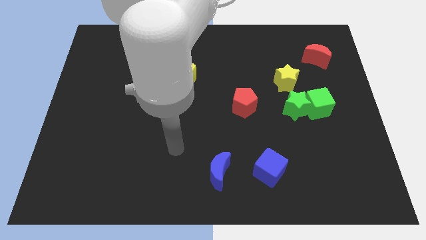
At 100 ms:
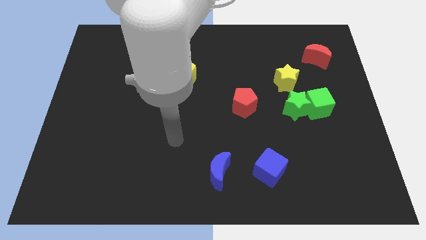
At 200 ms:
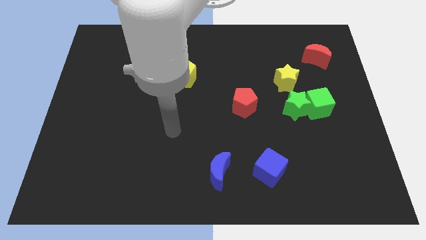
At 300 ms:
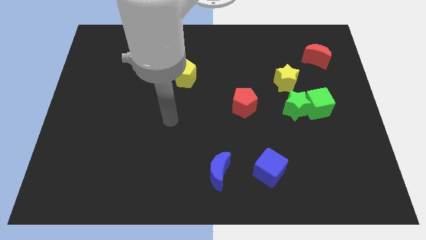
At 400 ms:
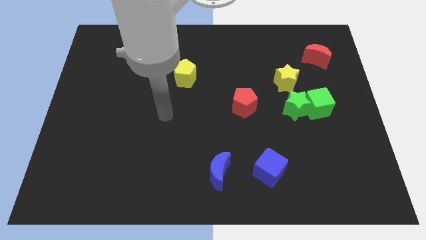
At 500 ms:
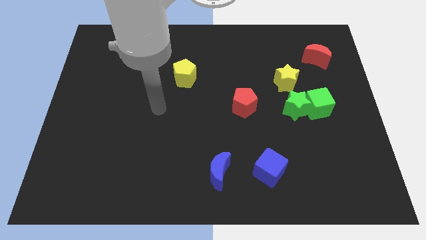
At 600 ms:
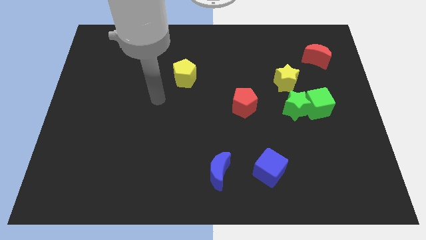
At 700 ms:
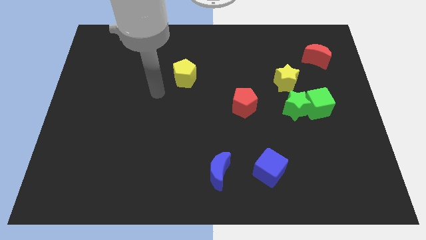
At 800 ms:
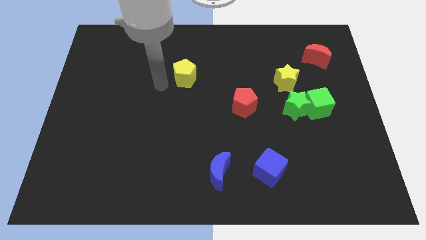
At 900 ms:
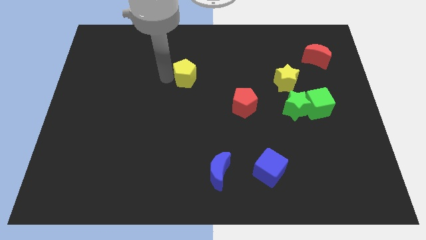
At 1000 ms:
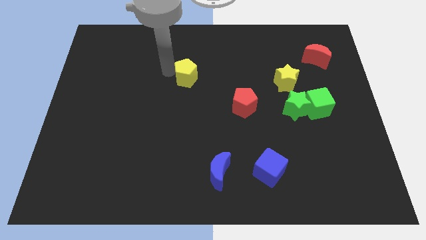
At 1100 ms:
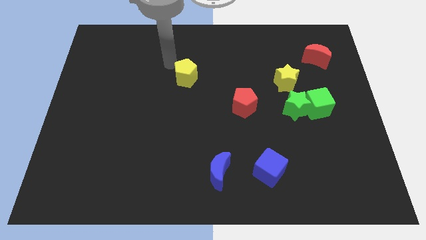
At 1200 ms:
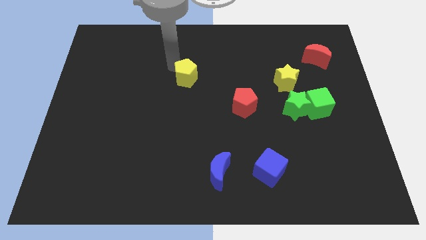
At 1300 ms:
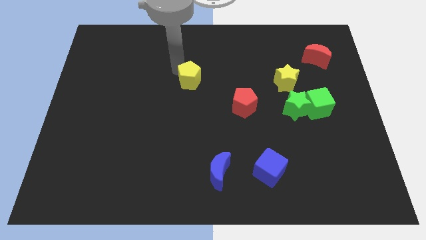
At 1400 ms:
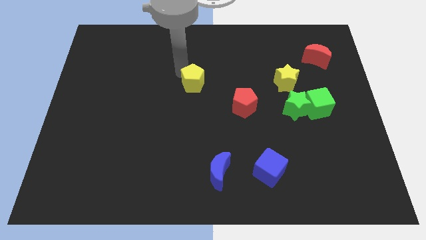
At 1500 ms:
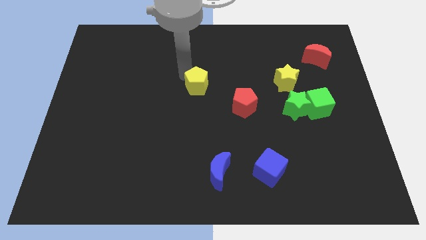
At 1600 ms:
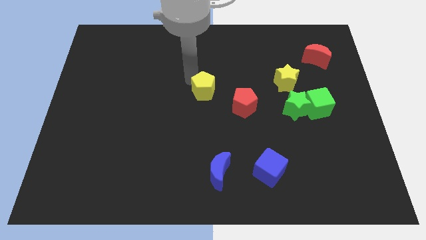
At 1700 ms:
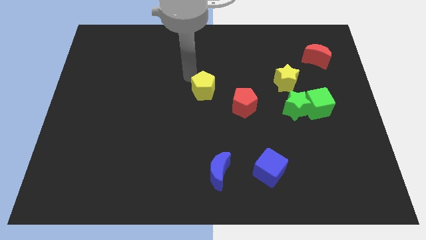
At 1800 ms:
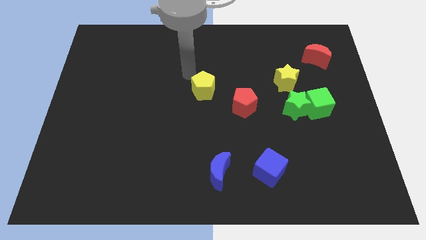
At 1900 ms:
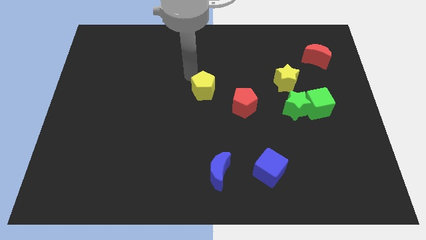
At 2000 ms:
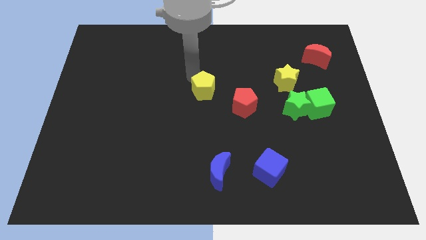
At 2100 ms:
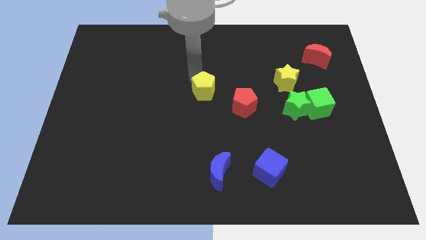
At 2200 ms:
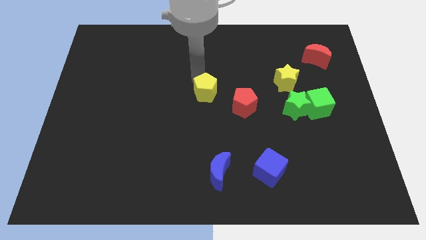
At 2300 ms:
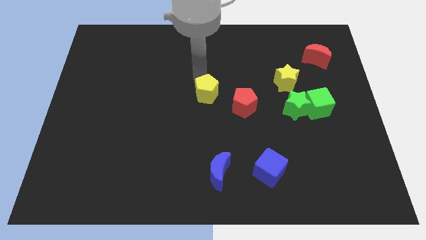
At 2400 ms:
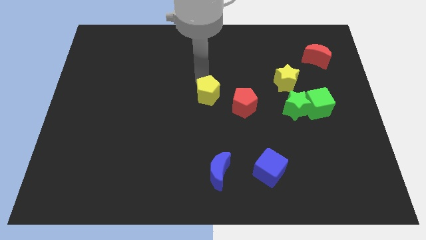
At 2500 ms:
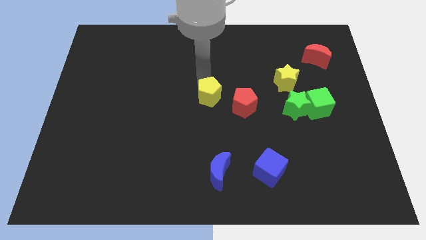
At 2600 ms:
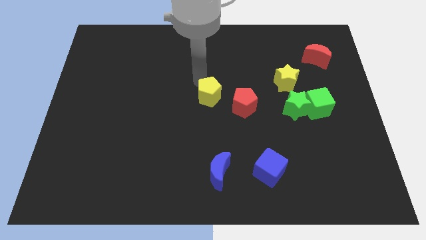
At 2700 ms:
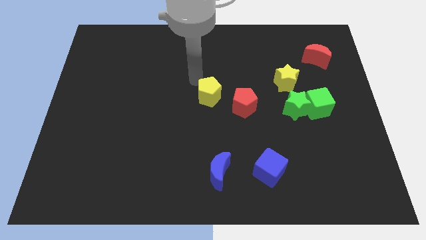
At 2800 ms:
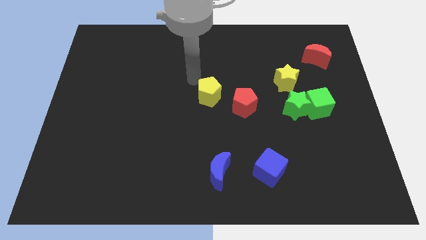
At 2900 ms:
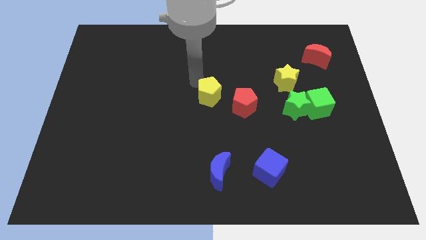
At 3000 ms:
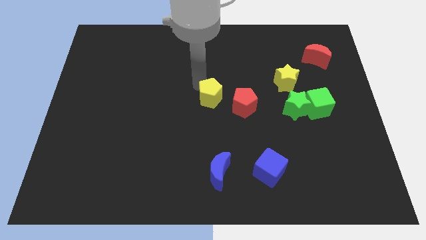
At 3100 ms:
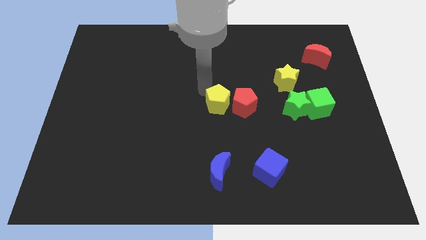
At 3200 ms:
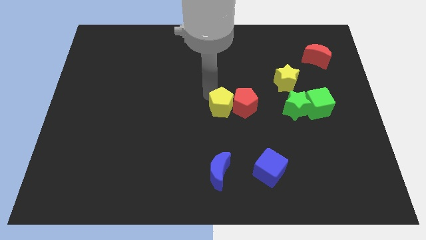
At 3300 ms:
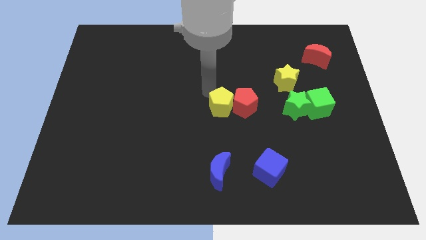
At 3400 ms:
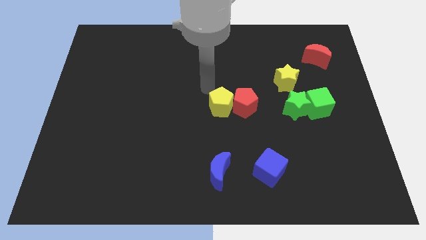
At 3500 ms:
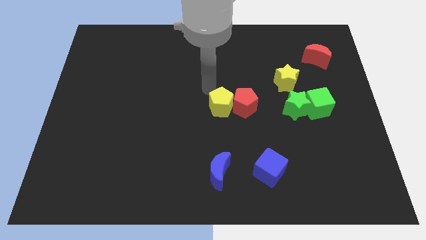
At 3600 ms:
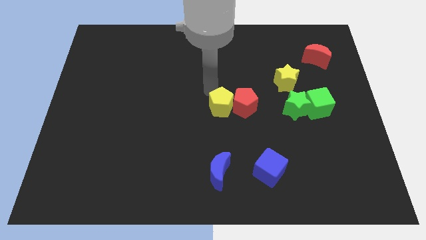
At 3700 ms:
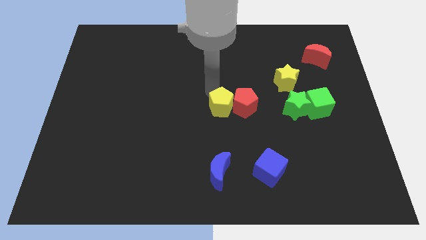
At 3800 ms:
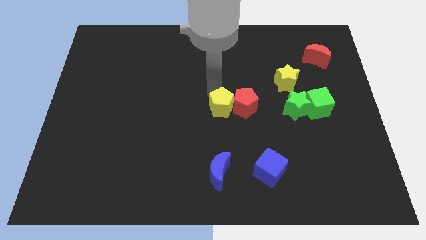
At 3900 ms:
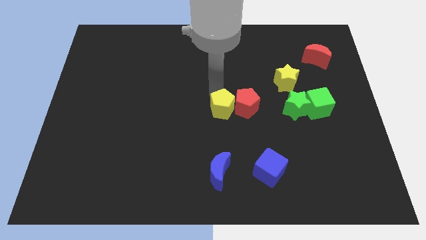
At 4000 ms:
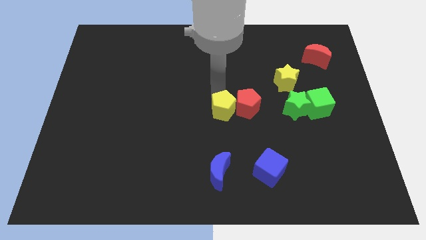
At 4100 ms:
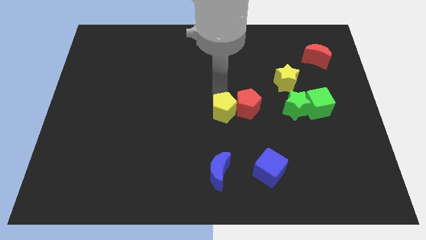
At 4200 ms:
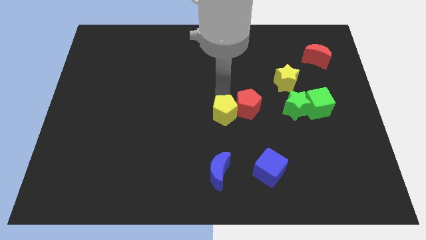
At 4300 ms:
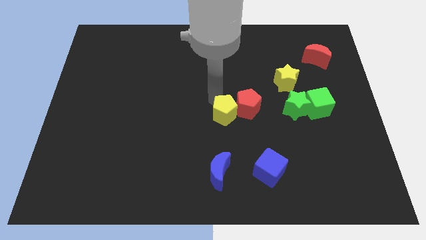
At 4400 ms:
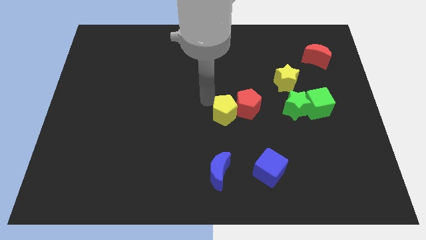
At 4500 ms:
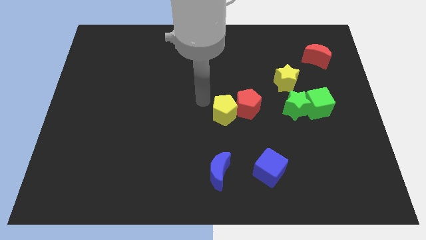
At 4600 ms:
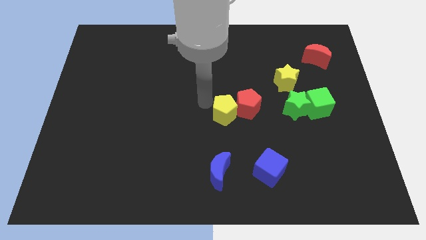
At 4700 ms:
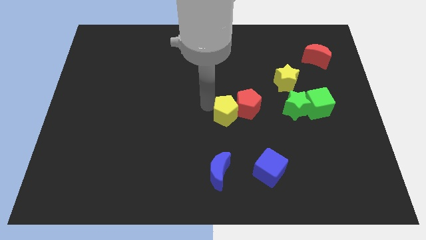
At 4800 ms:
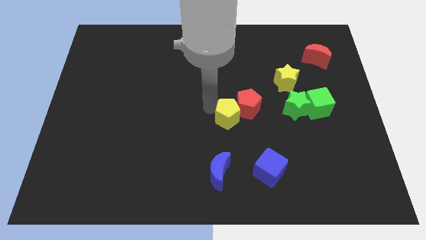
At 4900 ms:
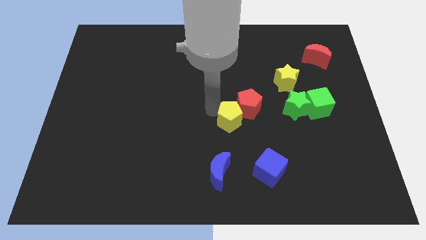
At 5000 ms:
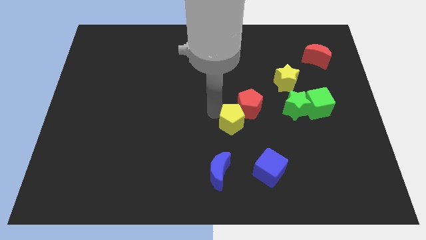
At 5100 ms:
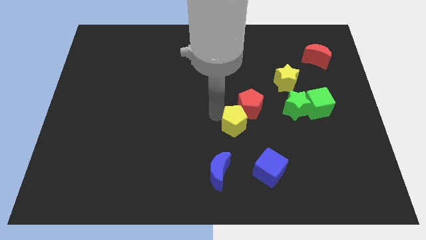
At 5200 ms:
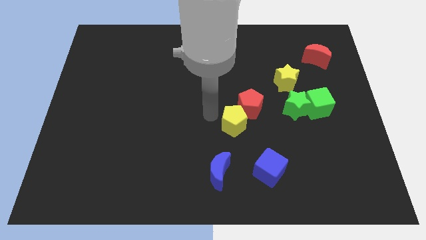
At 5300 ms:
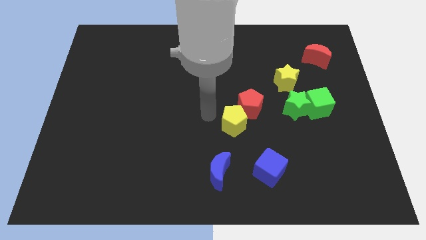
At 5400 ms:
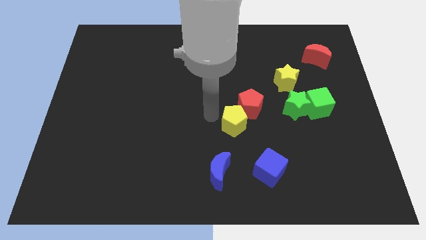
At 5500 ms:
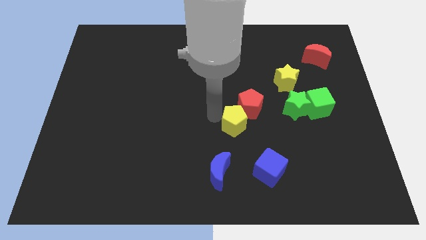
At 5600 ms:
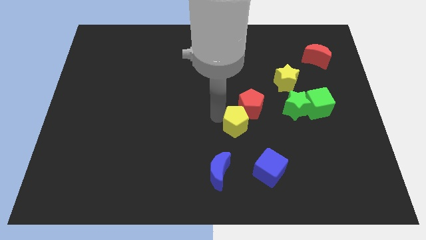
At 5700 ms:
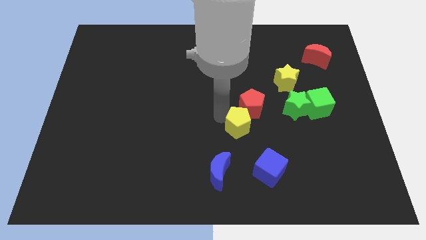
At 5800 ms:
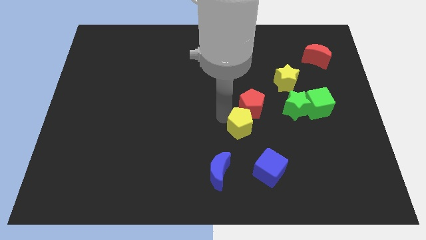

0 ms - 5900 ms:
slide the yellow pentagon diagonally downwards and to the right

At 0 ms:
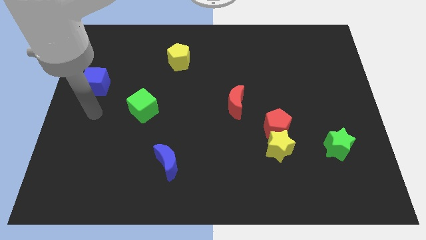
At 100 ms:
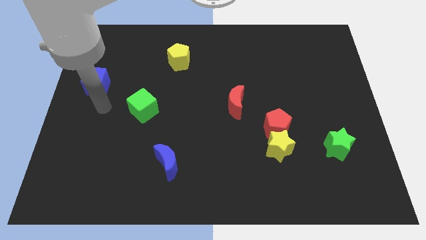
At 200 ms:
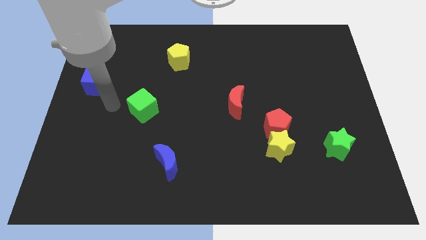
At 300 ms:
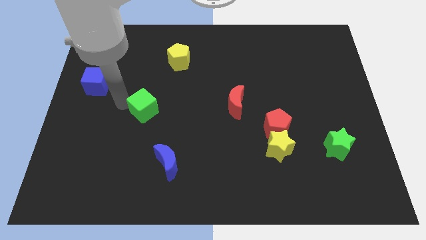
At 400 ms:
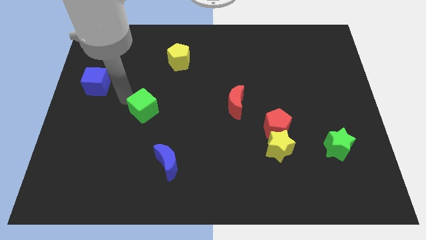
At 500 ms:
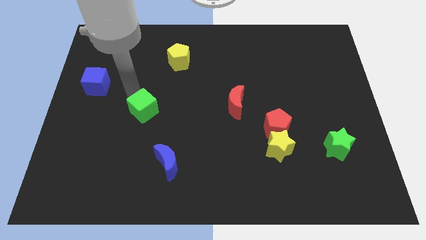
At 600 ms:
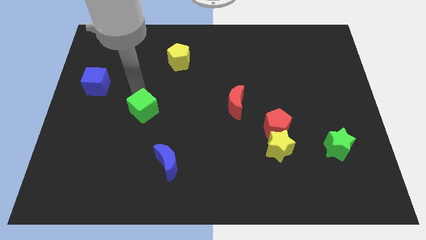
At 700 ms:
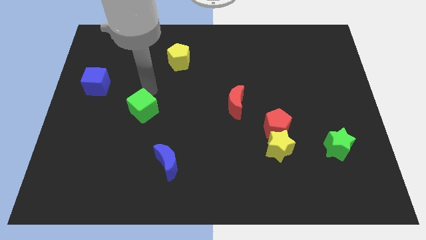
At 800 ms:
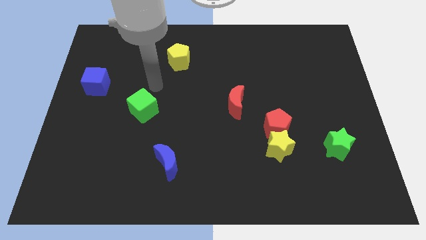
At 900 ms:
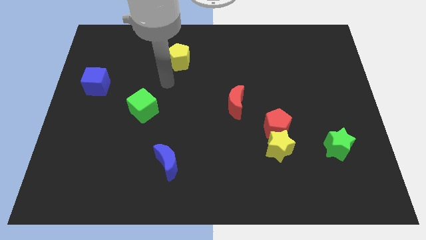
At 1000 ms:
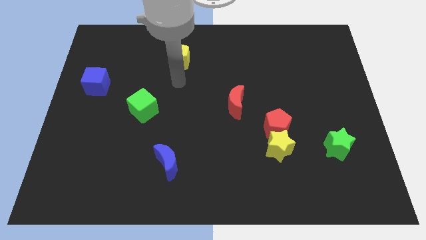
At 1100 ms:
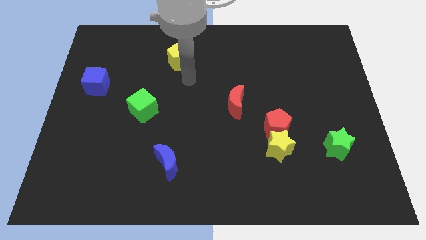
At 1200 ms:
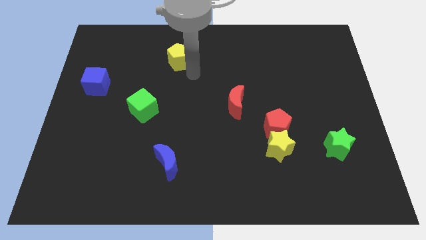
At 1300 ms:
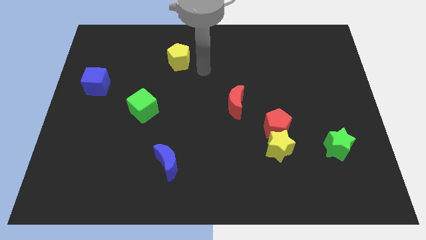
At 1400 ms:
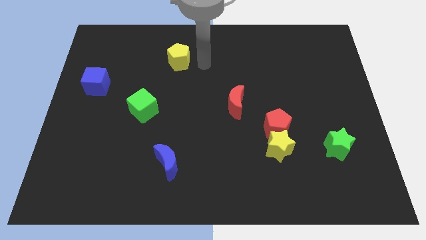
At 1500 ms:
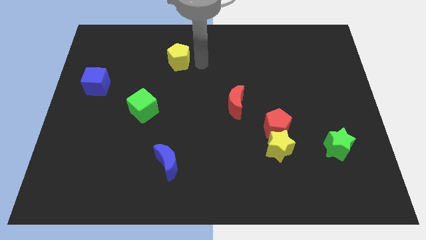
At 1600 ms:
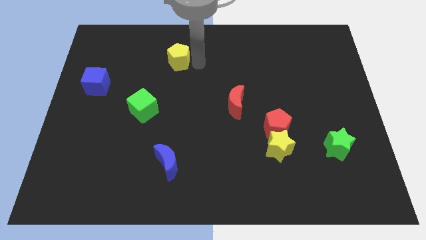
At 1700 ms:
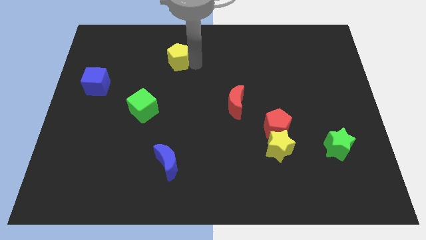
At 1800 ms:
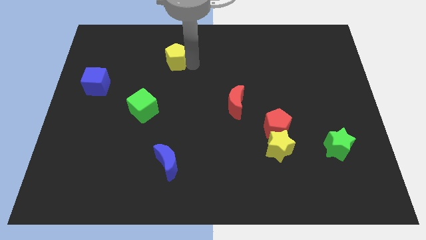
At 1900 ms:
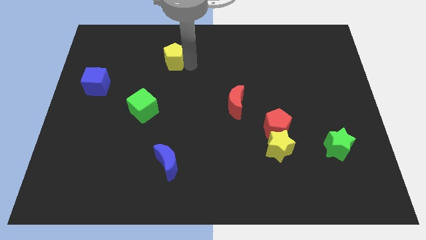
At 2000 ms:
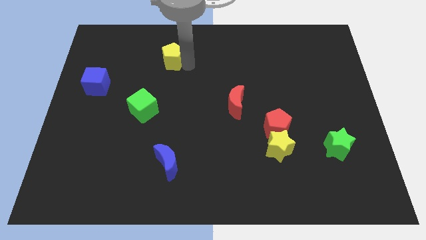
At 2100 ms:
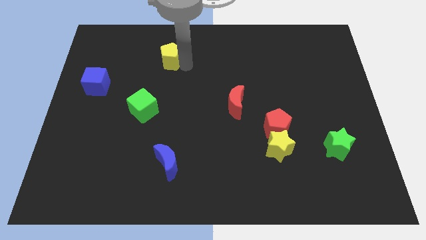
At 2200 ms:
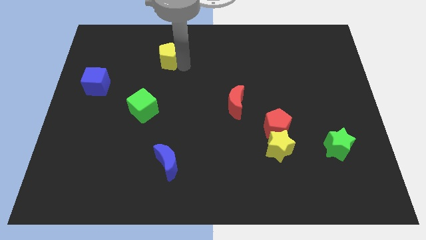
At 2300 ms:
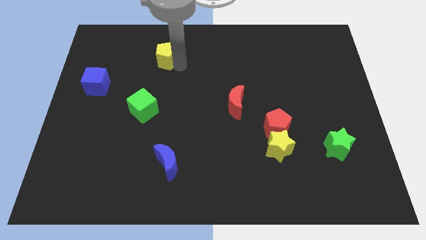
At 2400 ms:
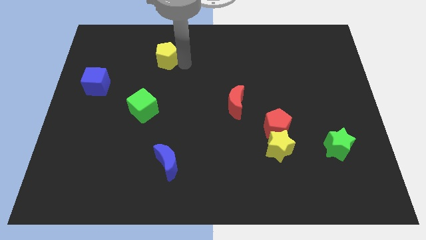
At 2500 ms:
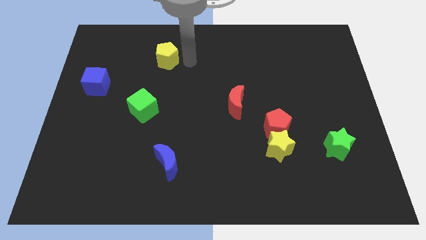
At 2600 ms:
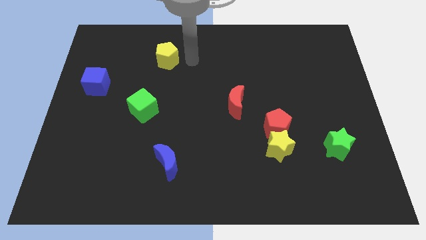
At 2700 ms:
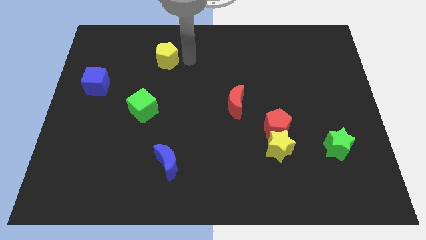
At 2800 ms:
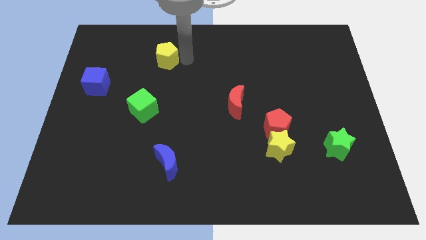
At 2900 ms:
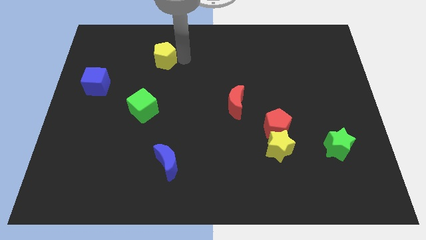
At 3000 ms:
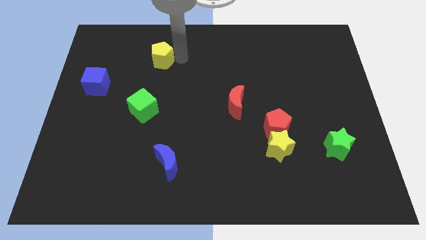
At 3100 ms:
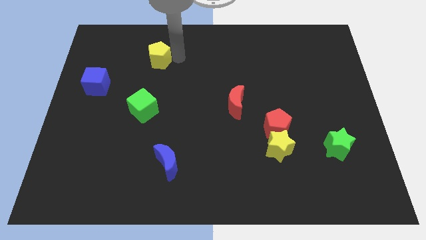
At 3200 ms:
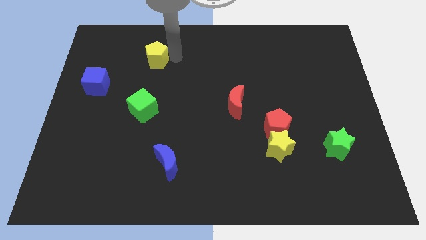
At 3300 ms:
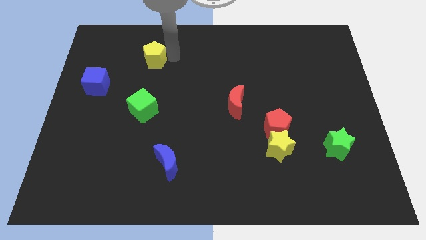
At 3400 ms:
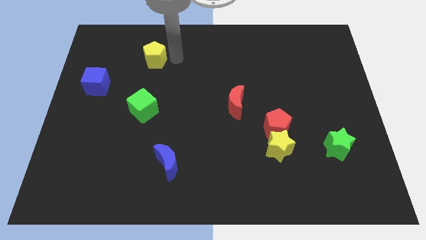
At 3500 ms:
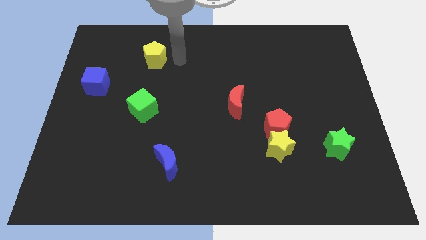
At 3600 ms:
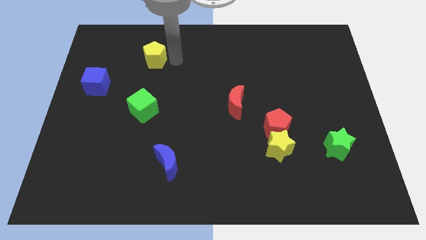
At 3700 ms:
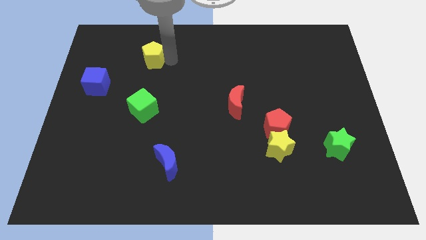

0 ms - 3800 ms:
push the yellow pentagon to the left a bit
